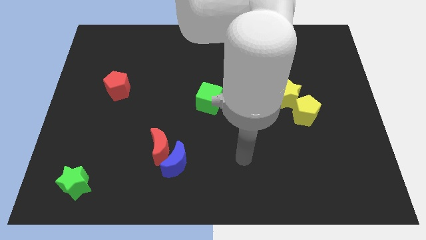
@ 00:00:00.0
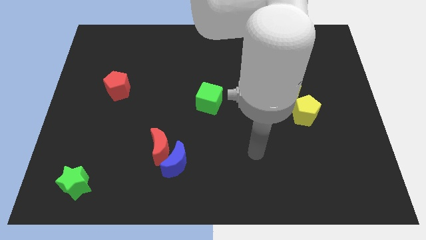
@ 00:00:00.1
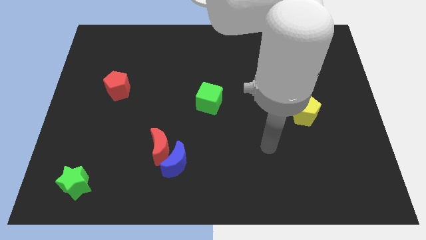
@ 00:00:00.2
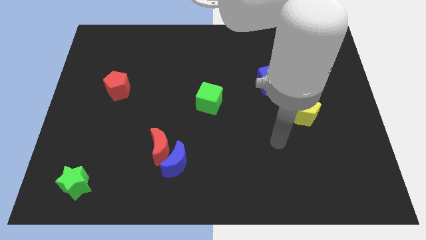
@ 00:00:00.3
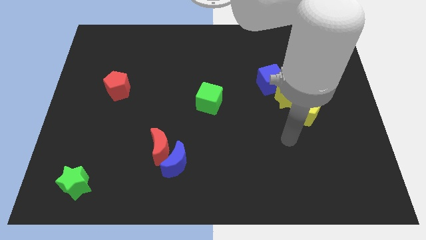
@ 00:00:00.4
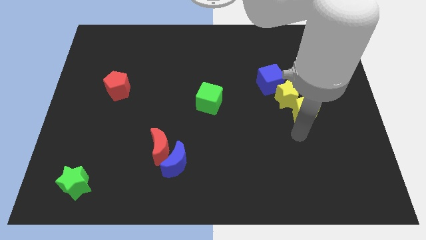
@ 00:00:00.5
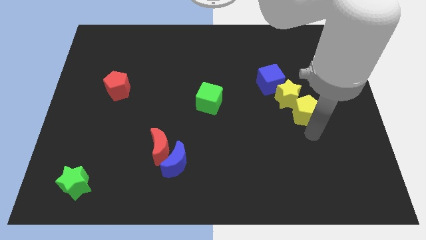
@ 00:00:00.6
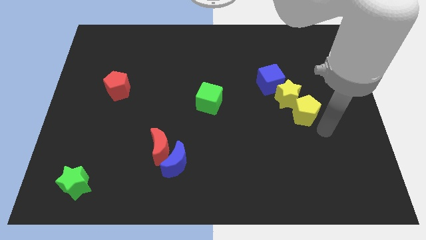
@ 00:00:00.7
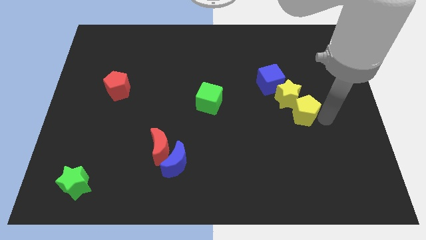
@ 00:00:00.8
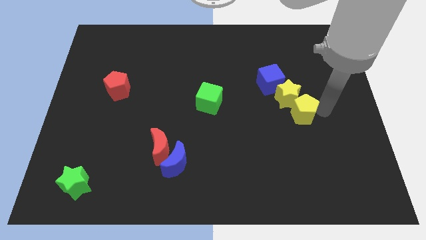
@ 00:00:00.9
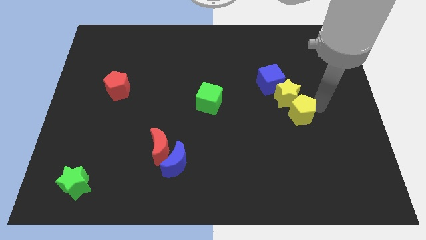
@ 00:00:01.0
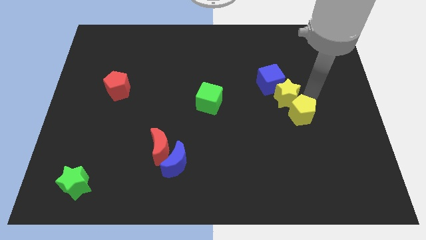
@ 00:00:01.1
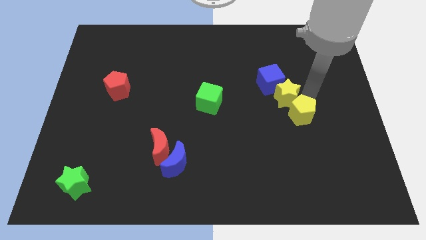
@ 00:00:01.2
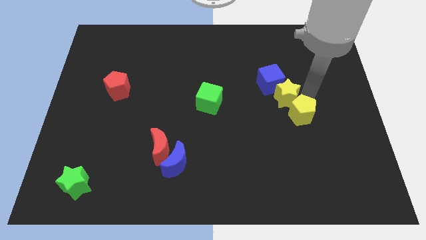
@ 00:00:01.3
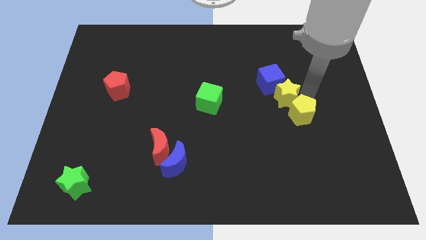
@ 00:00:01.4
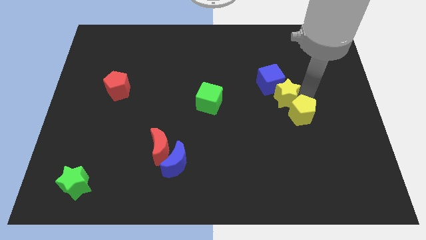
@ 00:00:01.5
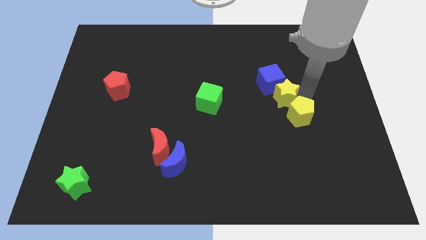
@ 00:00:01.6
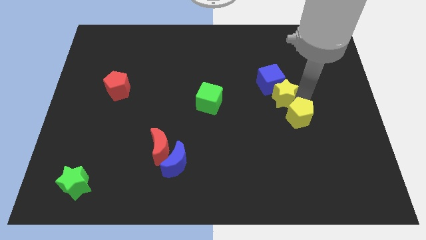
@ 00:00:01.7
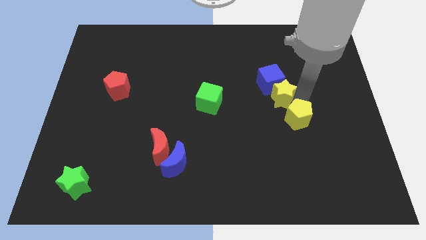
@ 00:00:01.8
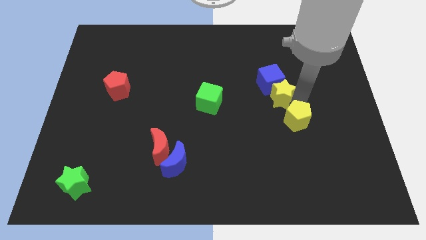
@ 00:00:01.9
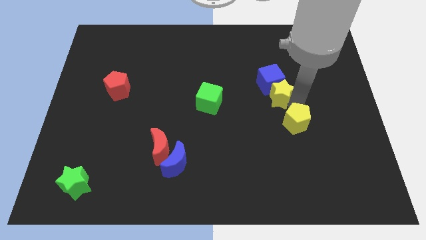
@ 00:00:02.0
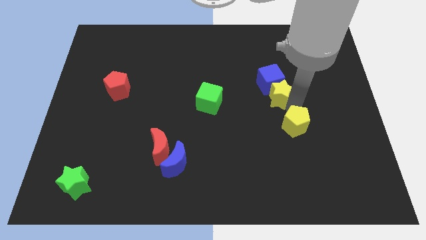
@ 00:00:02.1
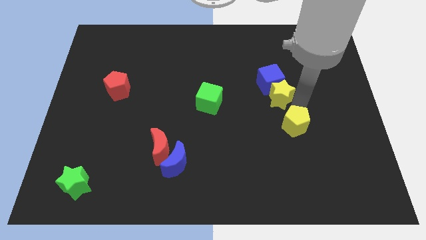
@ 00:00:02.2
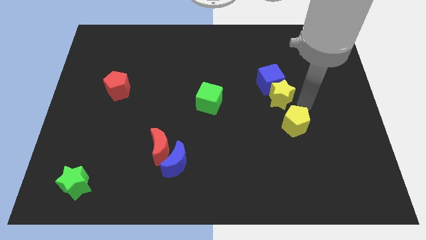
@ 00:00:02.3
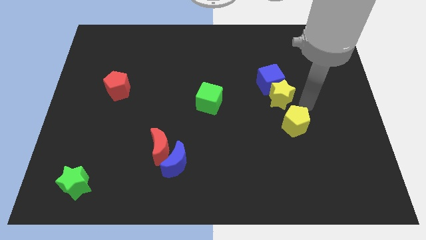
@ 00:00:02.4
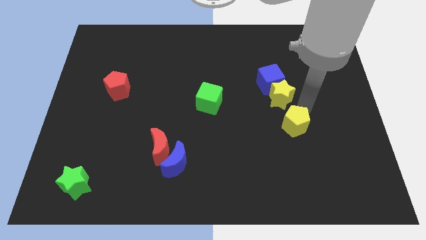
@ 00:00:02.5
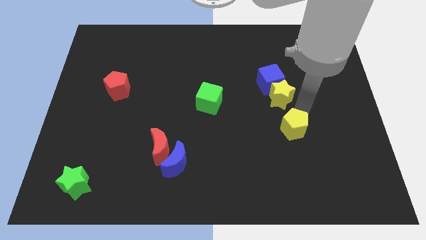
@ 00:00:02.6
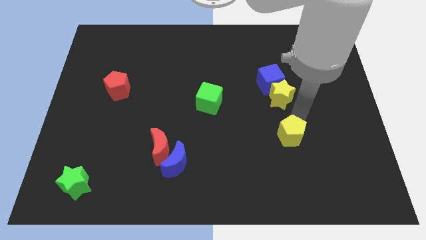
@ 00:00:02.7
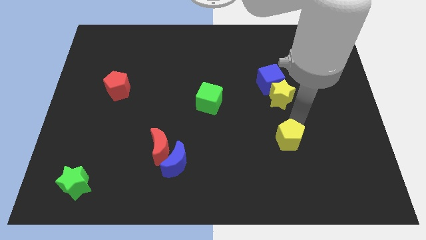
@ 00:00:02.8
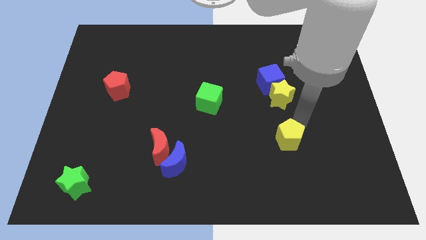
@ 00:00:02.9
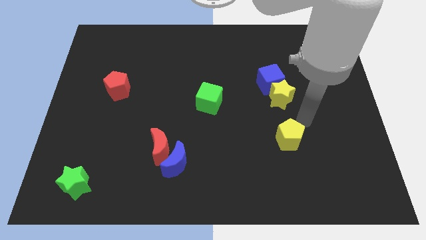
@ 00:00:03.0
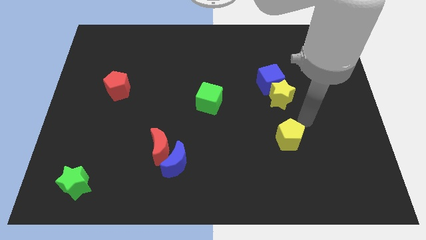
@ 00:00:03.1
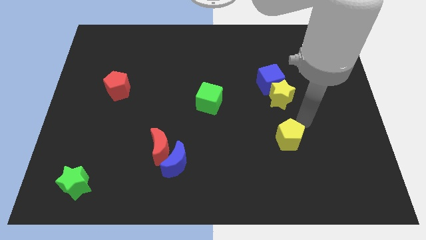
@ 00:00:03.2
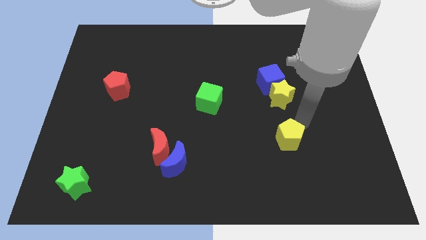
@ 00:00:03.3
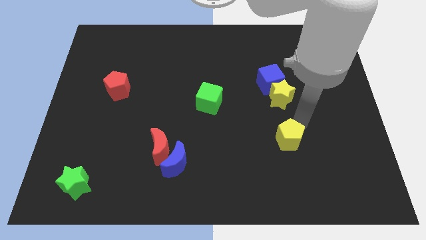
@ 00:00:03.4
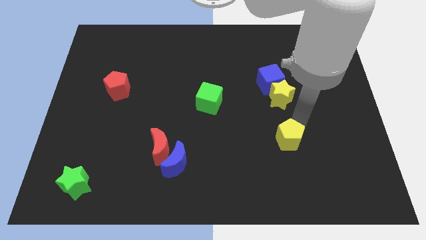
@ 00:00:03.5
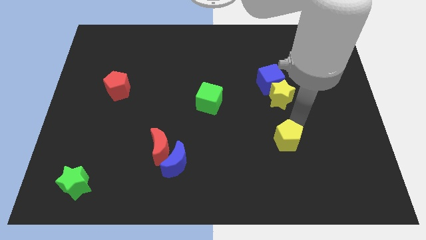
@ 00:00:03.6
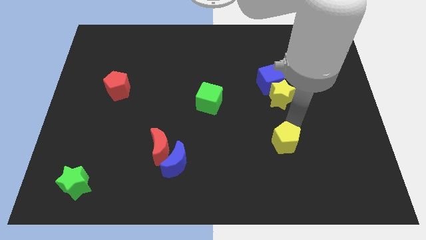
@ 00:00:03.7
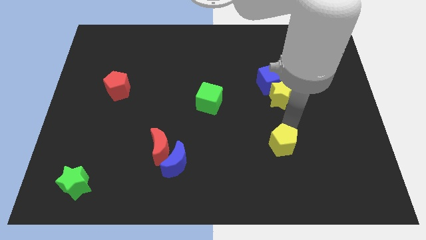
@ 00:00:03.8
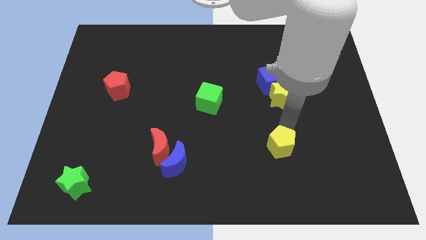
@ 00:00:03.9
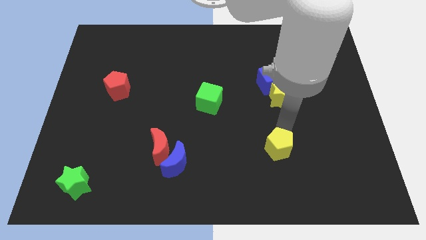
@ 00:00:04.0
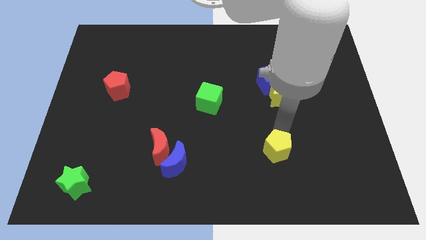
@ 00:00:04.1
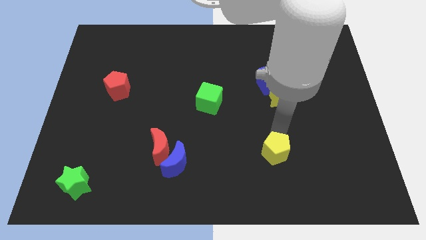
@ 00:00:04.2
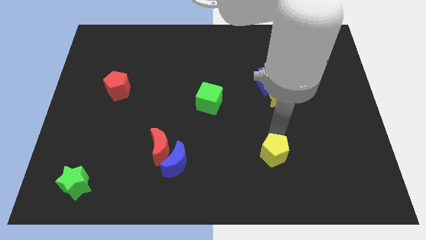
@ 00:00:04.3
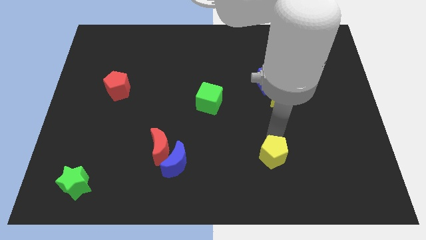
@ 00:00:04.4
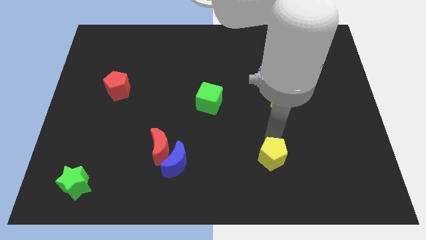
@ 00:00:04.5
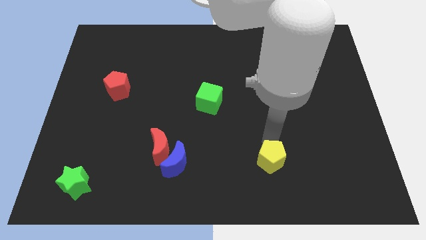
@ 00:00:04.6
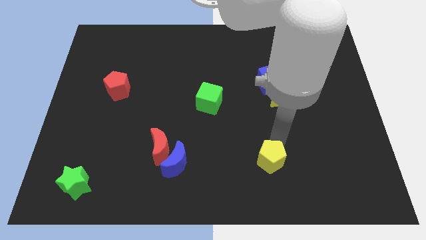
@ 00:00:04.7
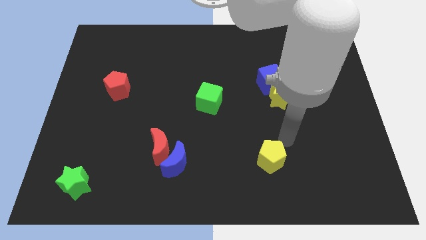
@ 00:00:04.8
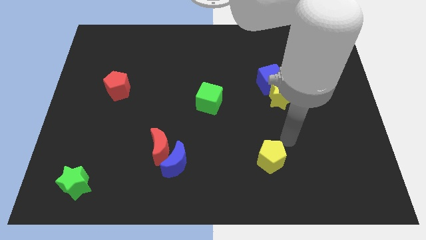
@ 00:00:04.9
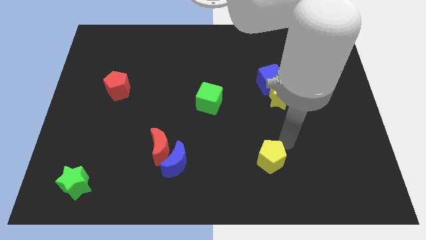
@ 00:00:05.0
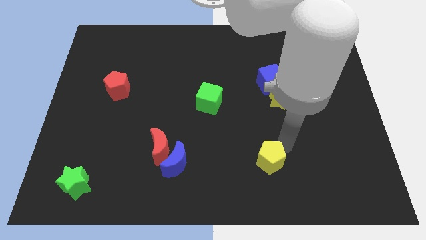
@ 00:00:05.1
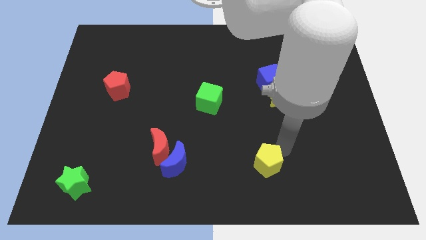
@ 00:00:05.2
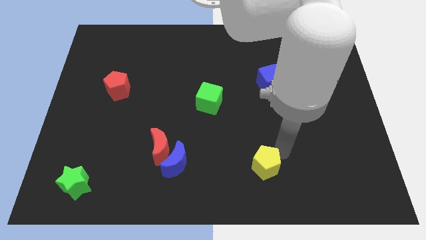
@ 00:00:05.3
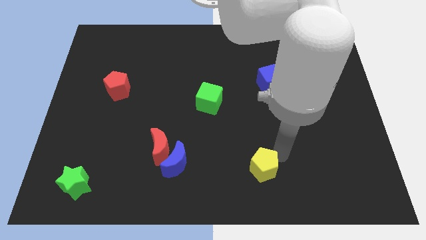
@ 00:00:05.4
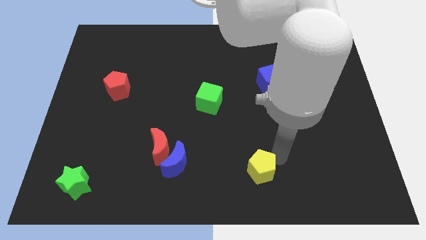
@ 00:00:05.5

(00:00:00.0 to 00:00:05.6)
slide the yellow pentagon to the bottom
